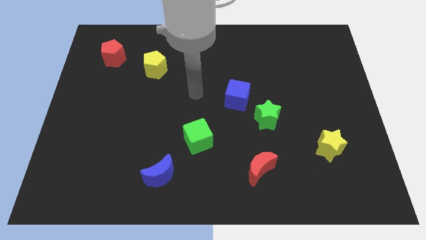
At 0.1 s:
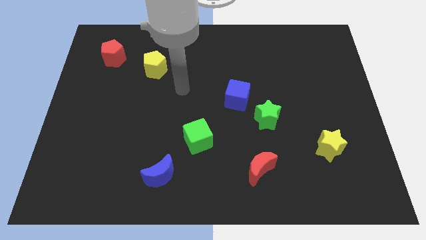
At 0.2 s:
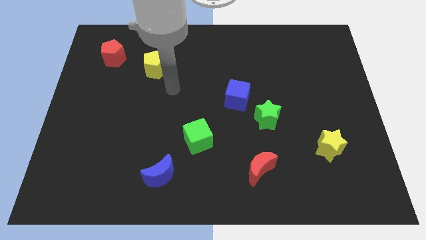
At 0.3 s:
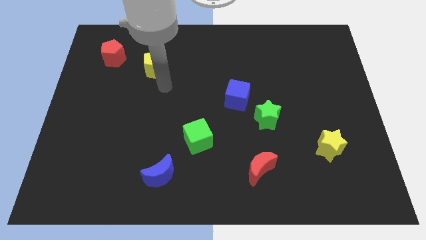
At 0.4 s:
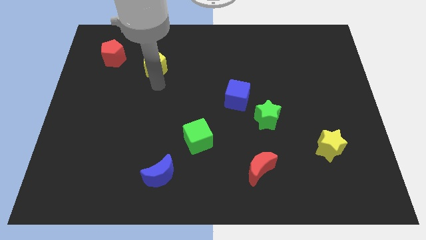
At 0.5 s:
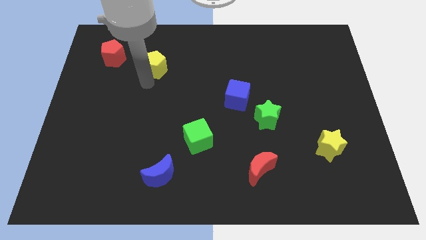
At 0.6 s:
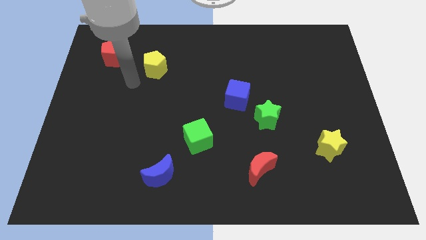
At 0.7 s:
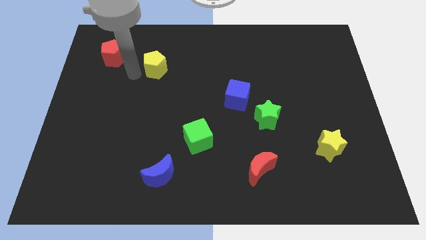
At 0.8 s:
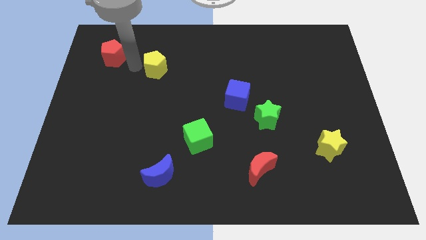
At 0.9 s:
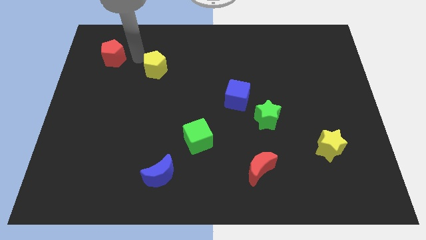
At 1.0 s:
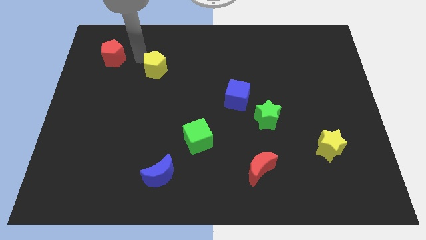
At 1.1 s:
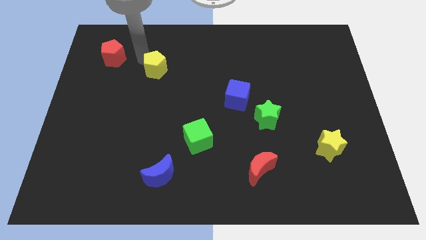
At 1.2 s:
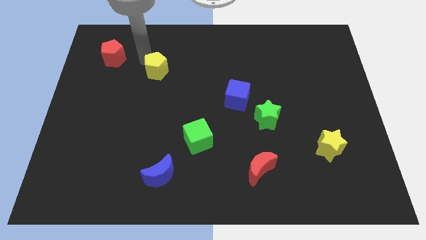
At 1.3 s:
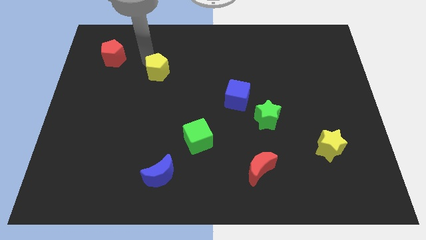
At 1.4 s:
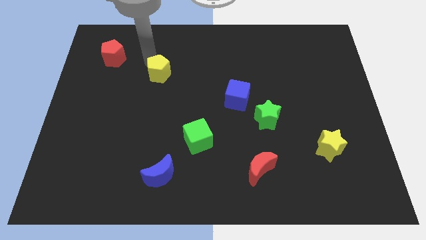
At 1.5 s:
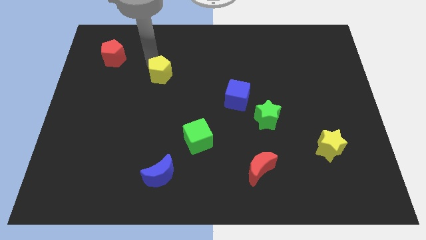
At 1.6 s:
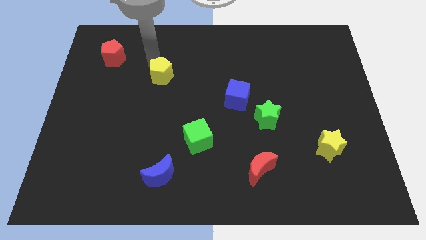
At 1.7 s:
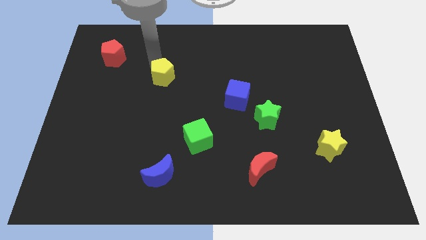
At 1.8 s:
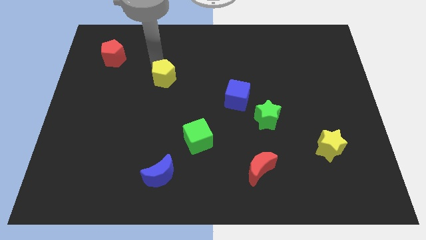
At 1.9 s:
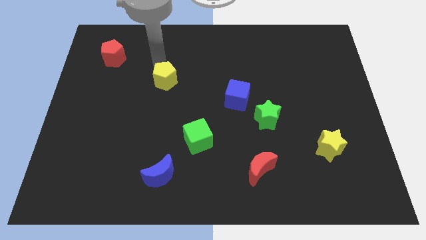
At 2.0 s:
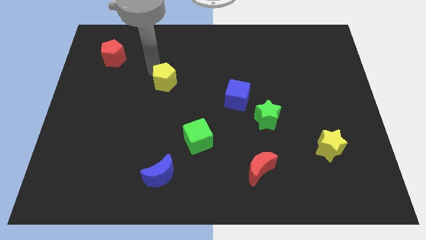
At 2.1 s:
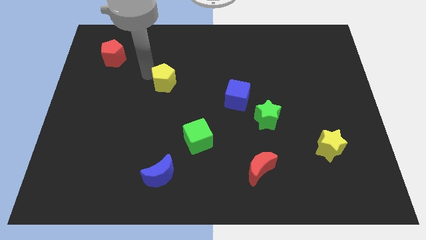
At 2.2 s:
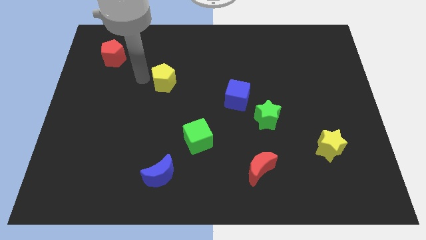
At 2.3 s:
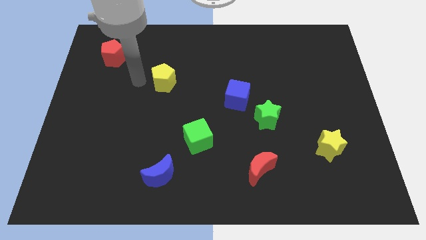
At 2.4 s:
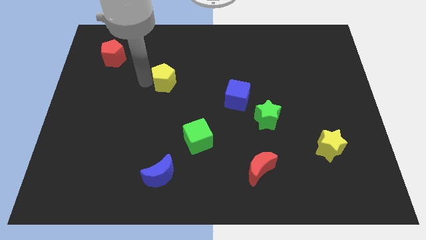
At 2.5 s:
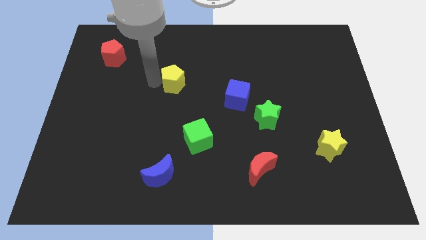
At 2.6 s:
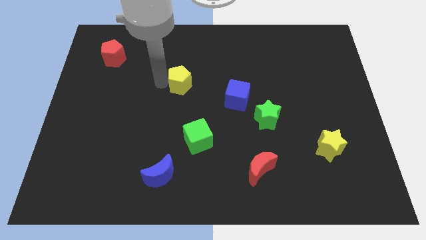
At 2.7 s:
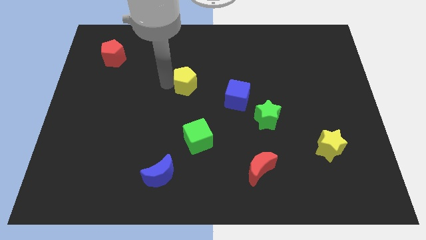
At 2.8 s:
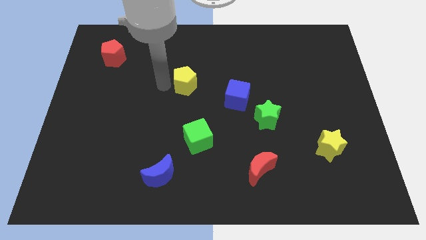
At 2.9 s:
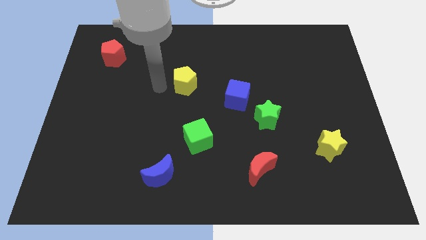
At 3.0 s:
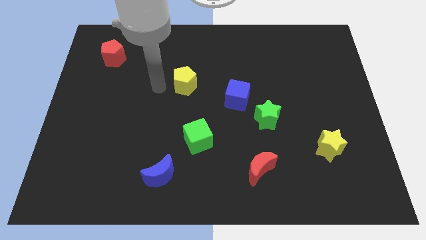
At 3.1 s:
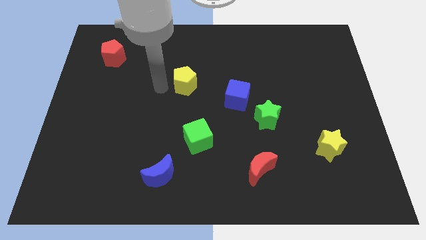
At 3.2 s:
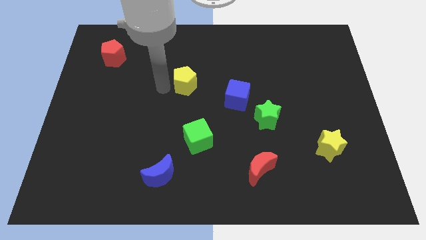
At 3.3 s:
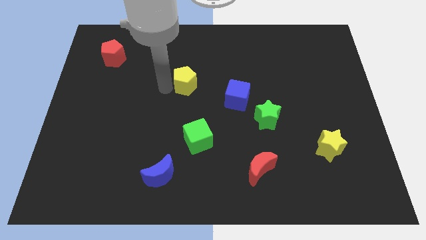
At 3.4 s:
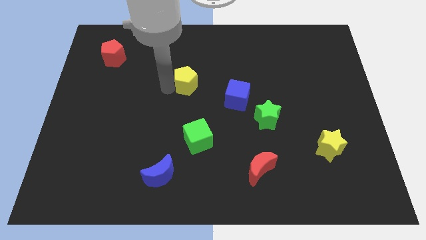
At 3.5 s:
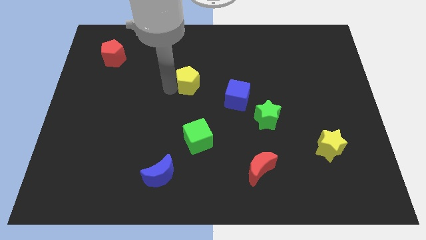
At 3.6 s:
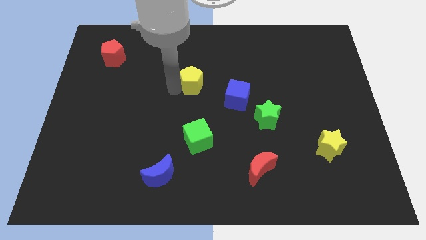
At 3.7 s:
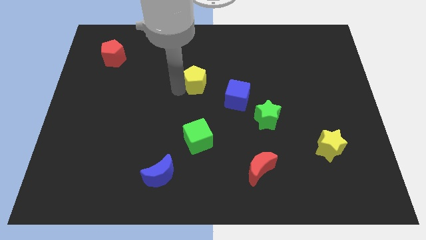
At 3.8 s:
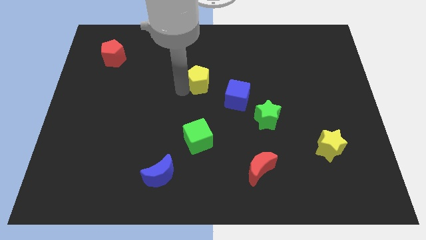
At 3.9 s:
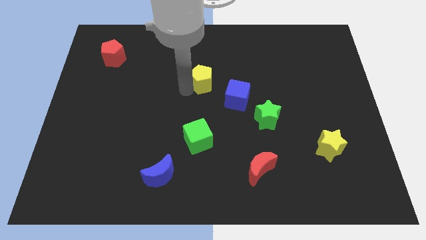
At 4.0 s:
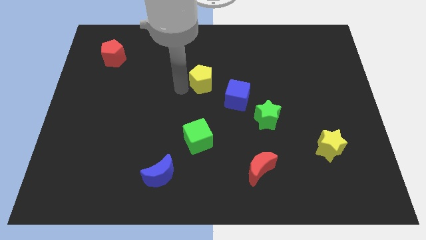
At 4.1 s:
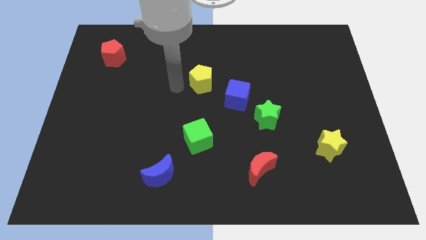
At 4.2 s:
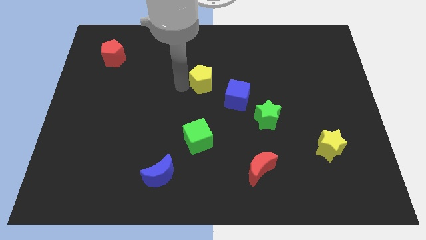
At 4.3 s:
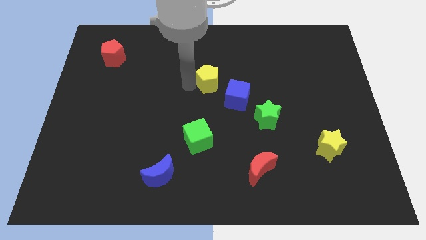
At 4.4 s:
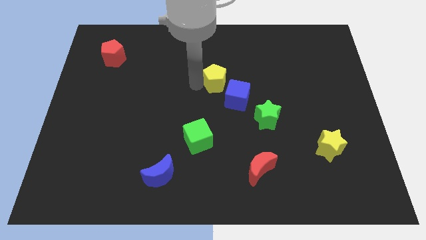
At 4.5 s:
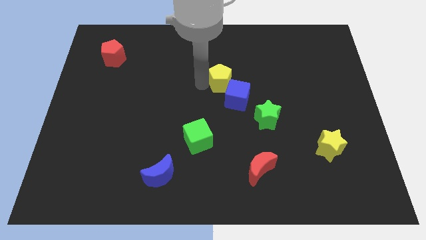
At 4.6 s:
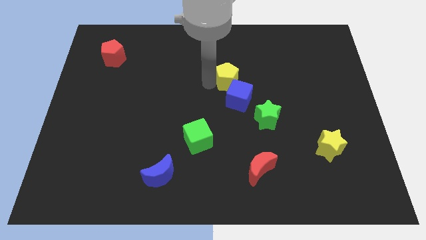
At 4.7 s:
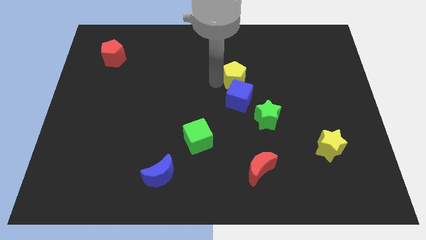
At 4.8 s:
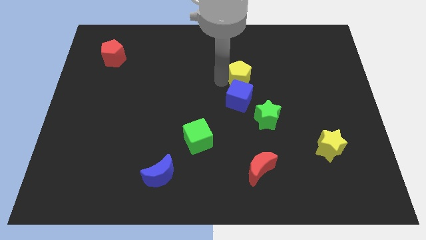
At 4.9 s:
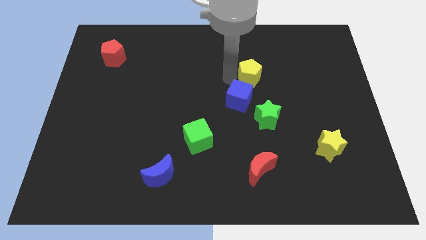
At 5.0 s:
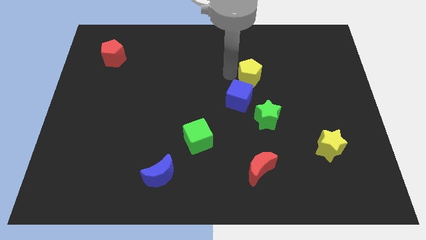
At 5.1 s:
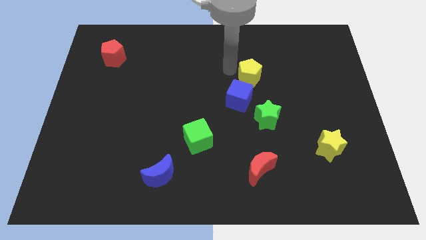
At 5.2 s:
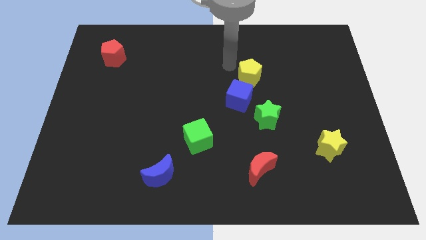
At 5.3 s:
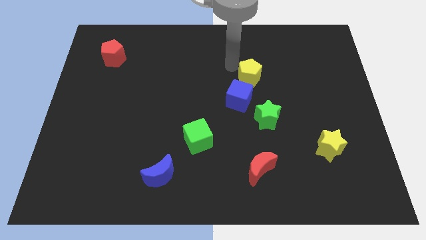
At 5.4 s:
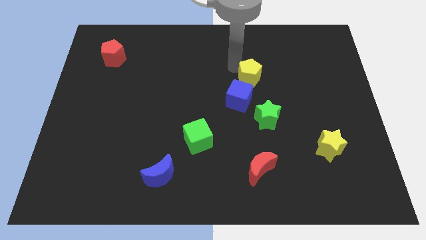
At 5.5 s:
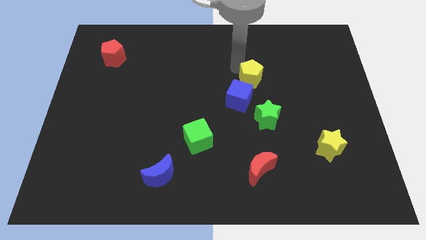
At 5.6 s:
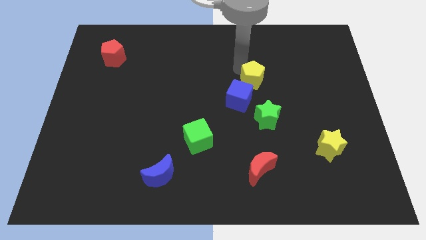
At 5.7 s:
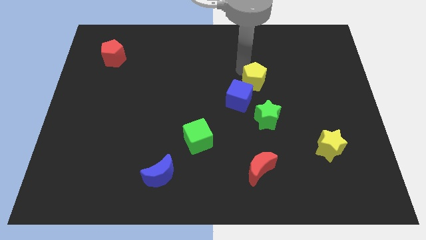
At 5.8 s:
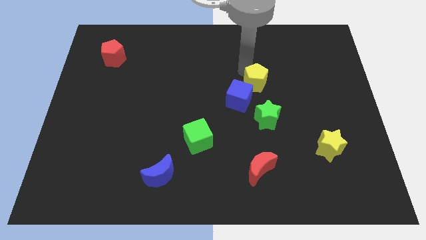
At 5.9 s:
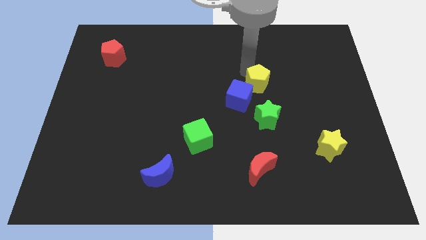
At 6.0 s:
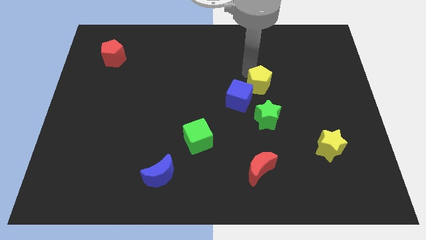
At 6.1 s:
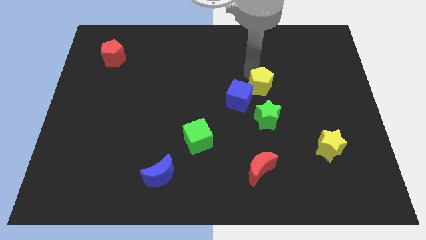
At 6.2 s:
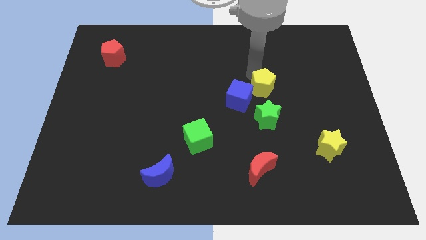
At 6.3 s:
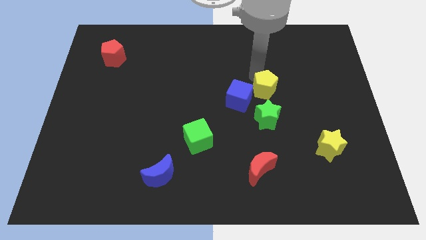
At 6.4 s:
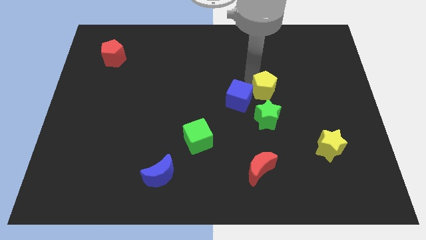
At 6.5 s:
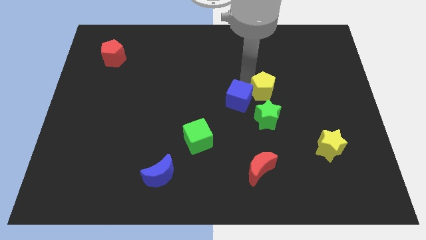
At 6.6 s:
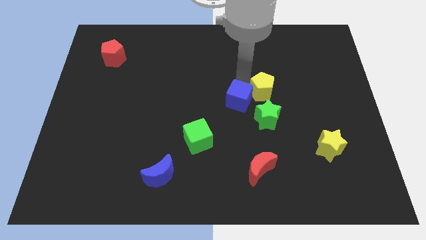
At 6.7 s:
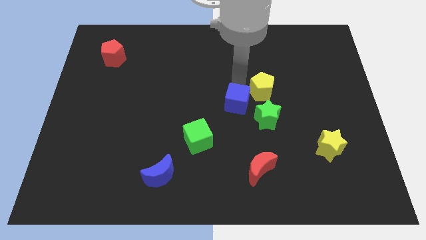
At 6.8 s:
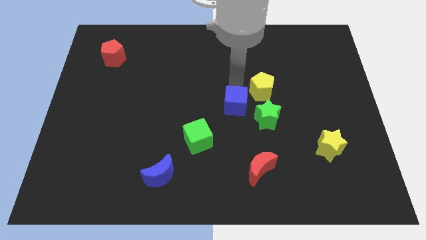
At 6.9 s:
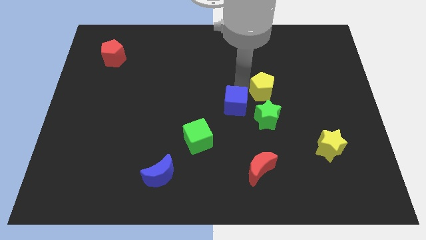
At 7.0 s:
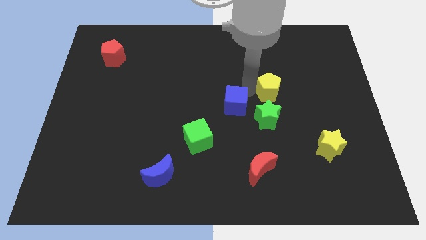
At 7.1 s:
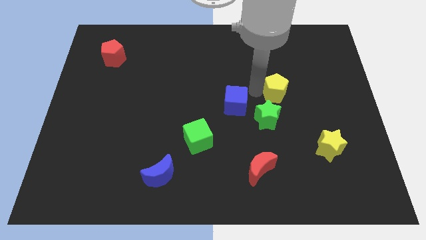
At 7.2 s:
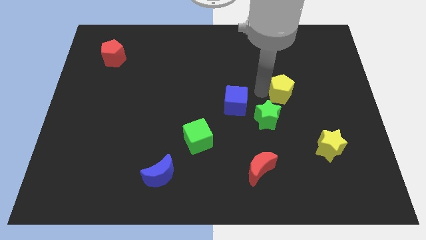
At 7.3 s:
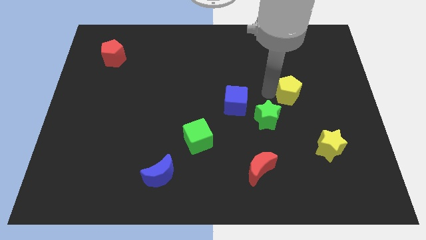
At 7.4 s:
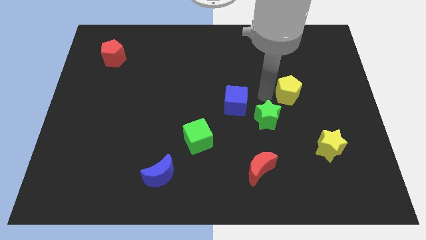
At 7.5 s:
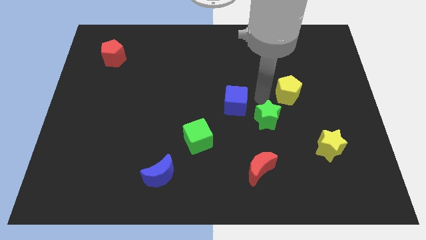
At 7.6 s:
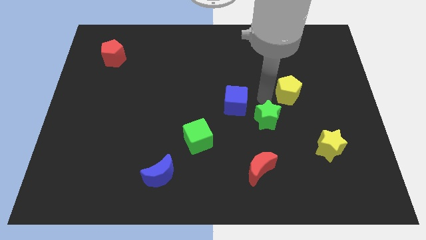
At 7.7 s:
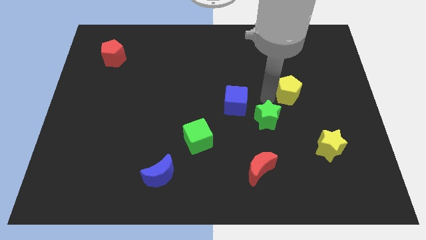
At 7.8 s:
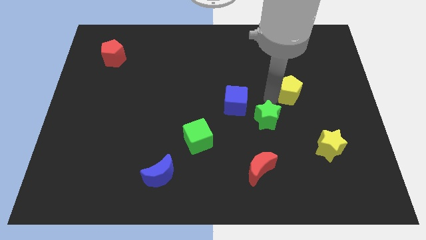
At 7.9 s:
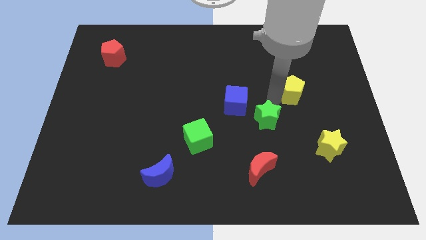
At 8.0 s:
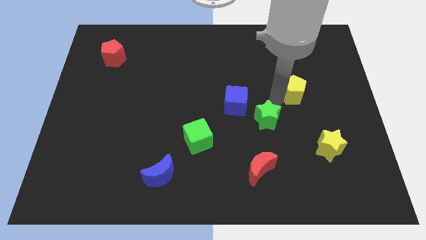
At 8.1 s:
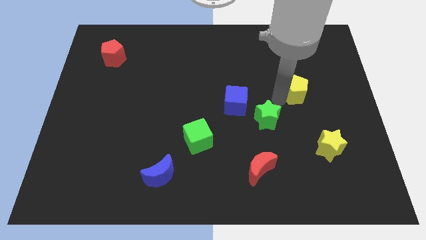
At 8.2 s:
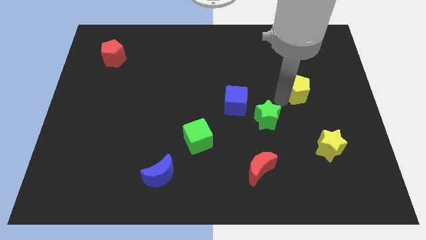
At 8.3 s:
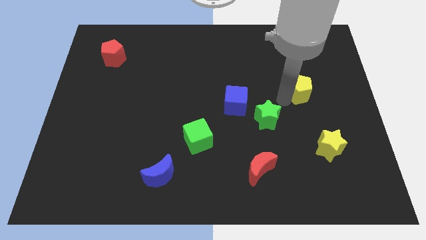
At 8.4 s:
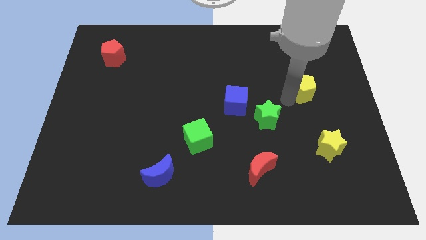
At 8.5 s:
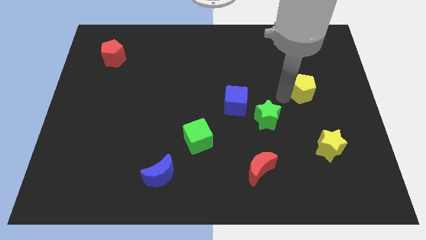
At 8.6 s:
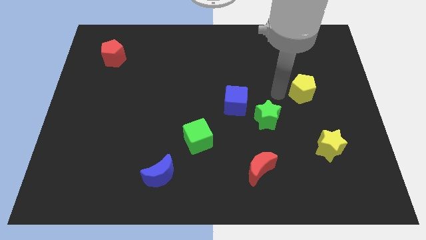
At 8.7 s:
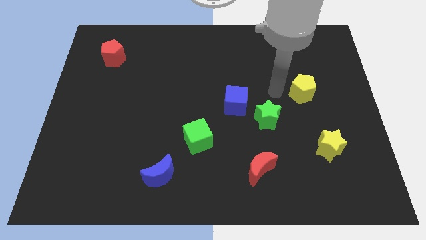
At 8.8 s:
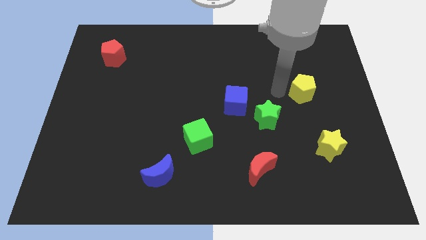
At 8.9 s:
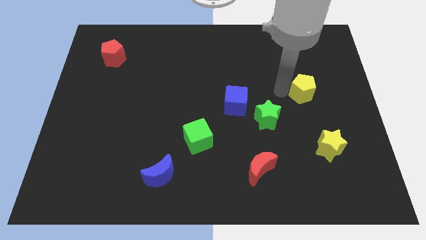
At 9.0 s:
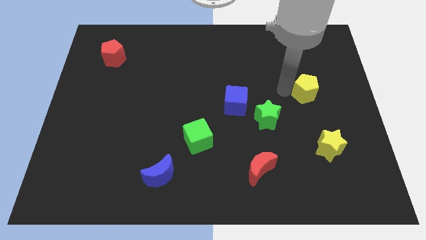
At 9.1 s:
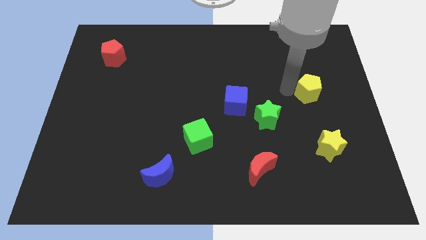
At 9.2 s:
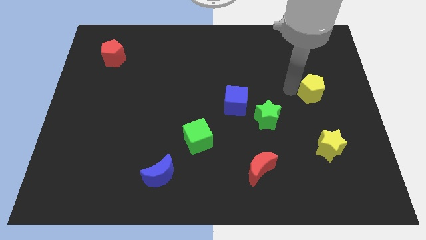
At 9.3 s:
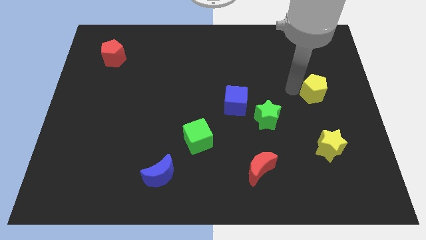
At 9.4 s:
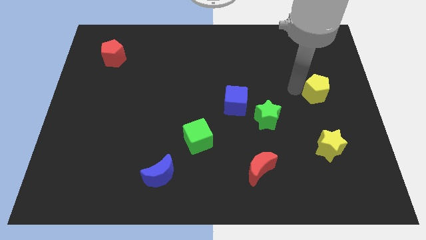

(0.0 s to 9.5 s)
put the yellow pentagon to the center right
